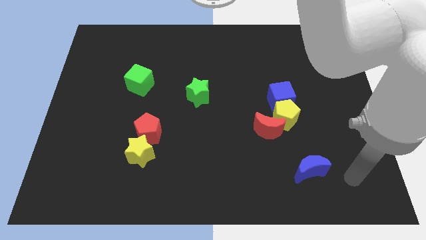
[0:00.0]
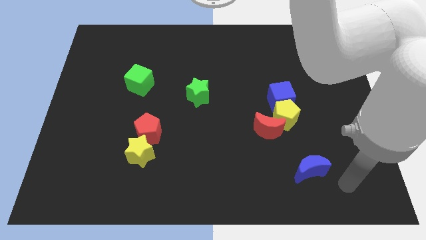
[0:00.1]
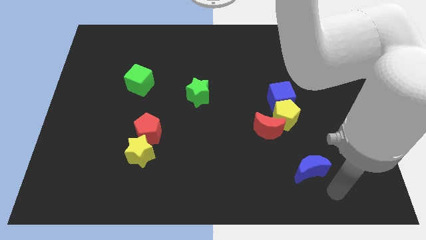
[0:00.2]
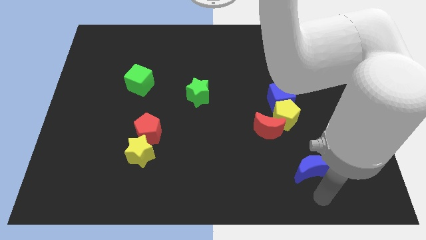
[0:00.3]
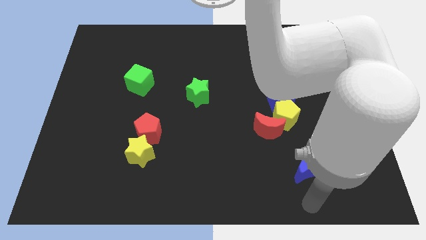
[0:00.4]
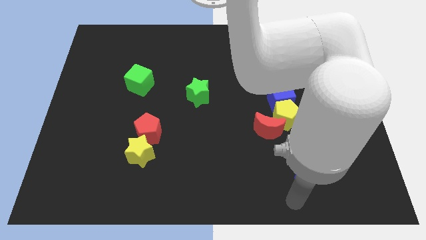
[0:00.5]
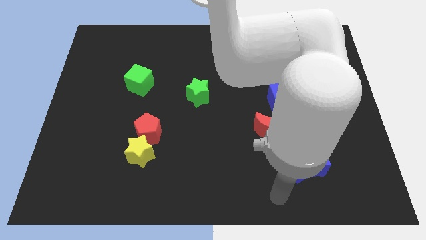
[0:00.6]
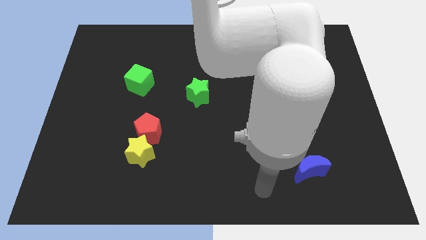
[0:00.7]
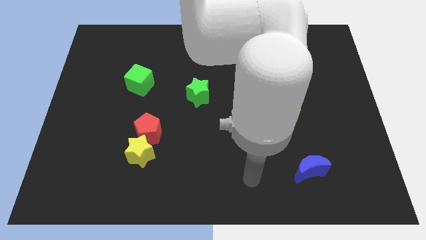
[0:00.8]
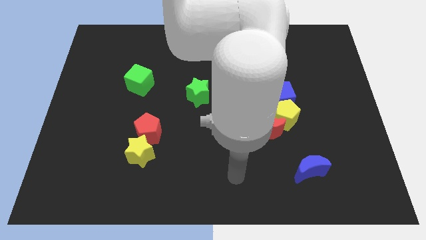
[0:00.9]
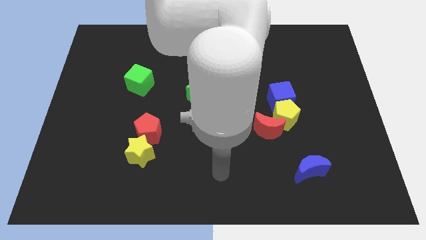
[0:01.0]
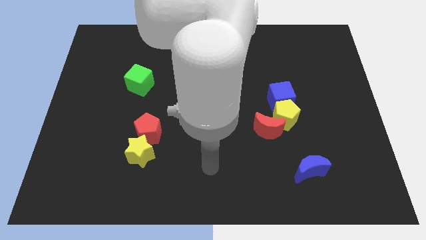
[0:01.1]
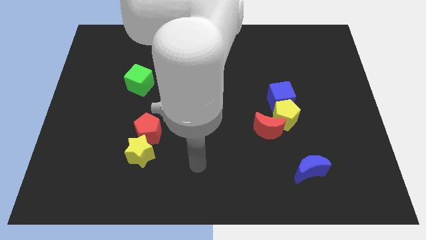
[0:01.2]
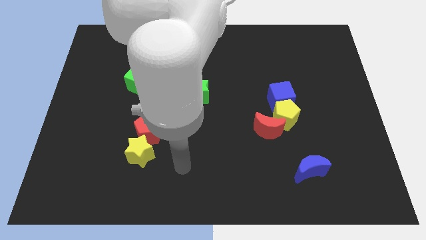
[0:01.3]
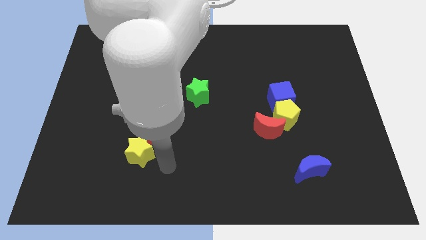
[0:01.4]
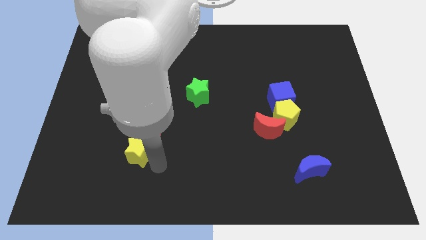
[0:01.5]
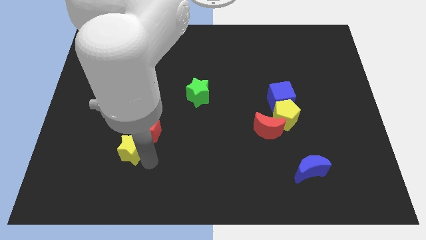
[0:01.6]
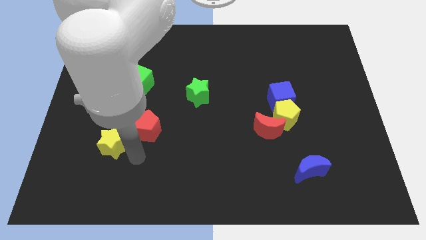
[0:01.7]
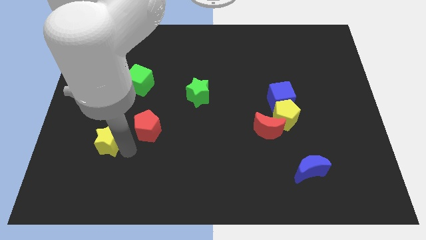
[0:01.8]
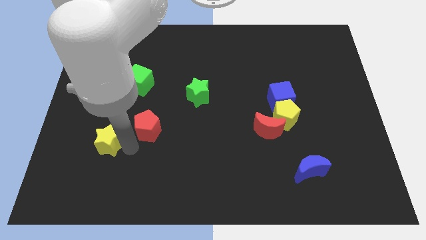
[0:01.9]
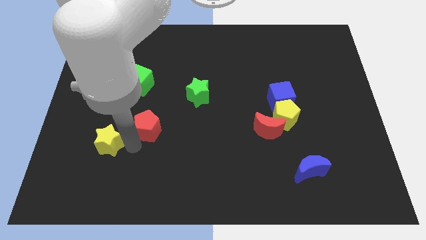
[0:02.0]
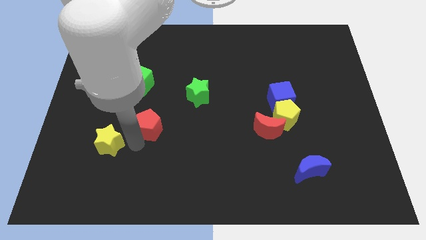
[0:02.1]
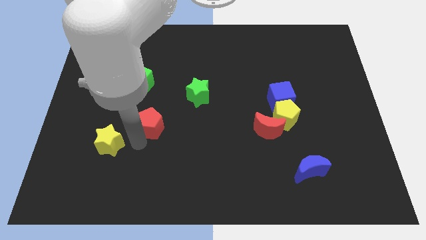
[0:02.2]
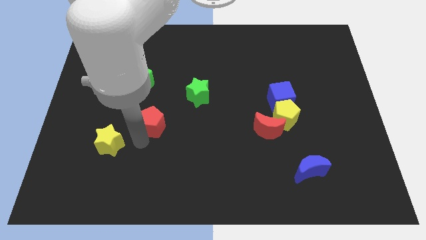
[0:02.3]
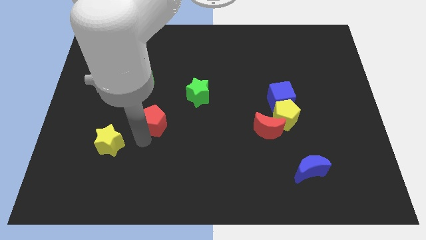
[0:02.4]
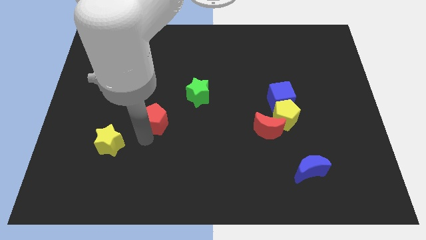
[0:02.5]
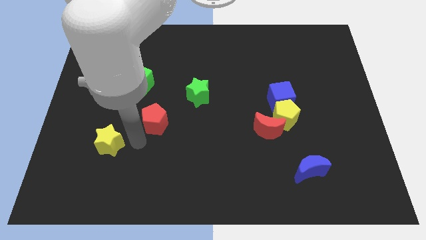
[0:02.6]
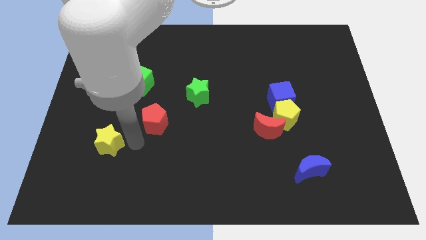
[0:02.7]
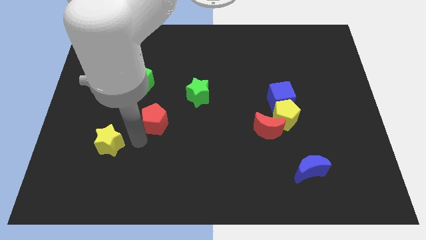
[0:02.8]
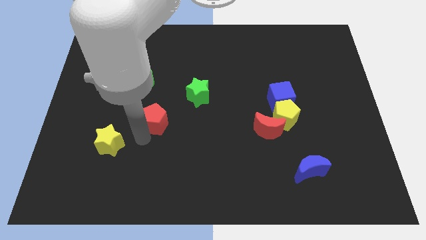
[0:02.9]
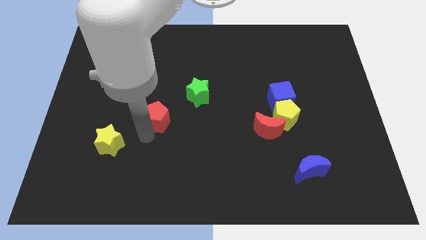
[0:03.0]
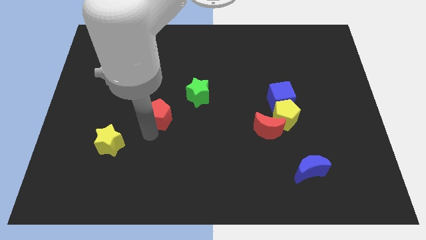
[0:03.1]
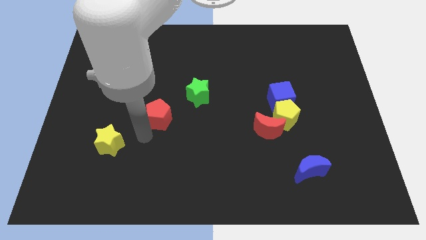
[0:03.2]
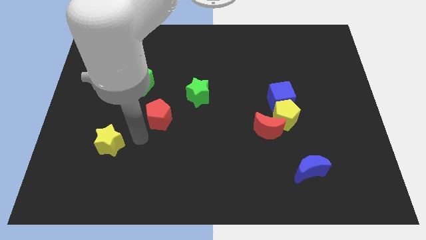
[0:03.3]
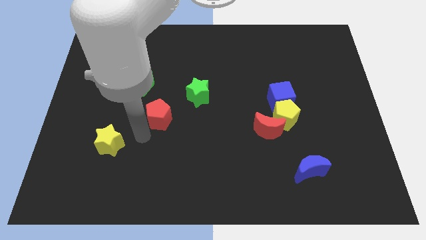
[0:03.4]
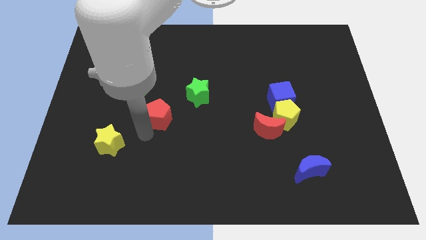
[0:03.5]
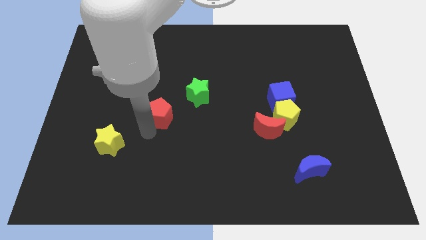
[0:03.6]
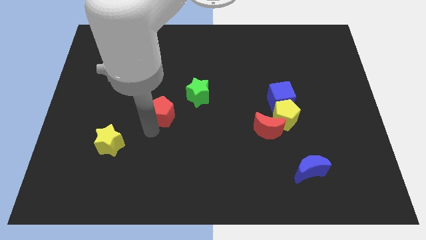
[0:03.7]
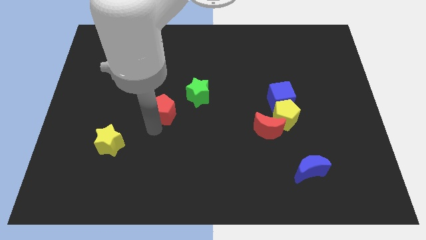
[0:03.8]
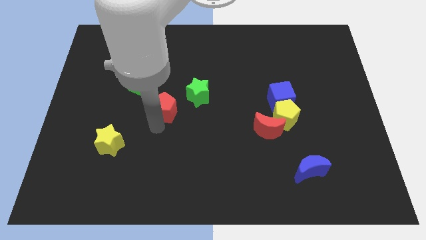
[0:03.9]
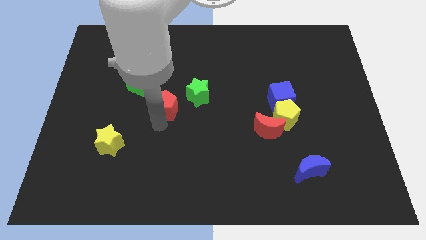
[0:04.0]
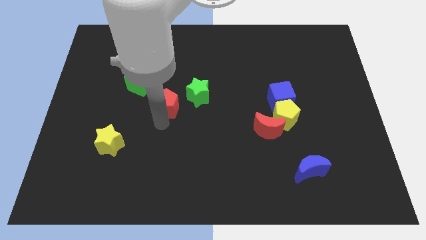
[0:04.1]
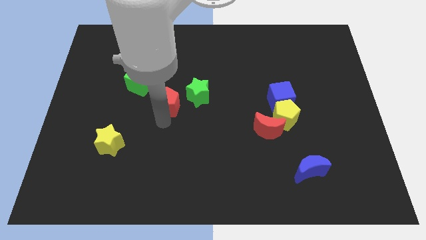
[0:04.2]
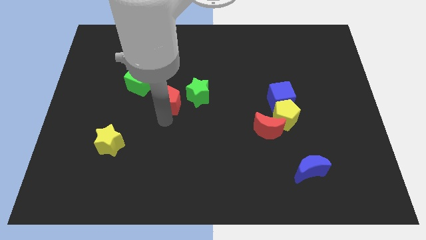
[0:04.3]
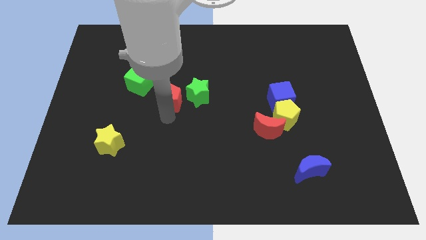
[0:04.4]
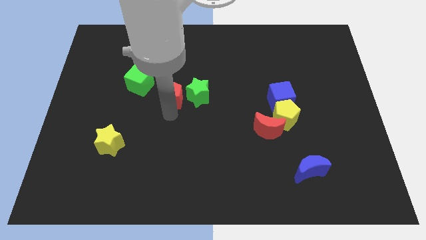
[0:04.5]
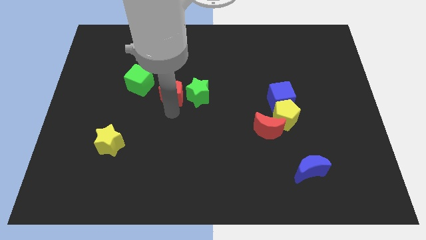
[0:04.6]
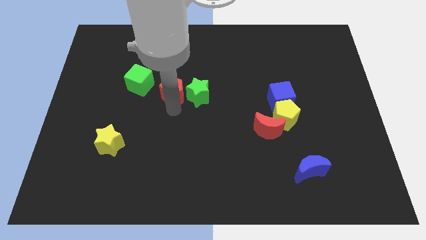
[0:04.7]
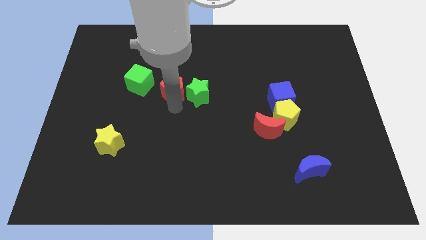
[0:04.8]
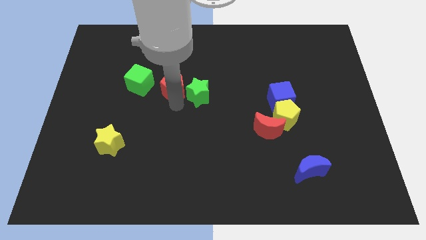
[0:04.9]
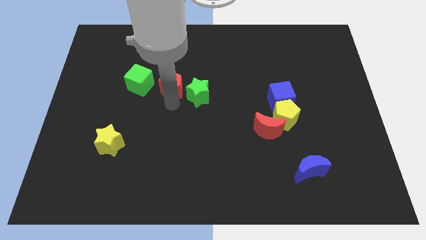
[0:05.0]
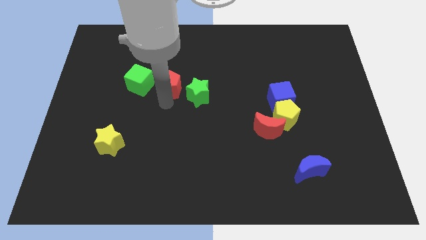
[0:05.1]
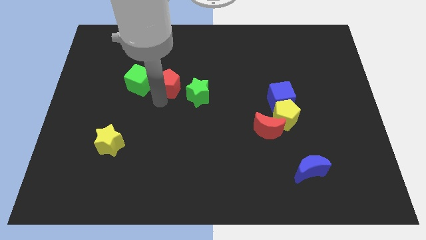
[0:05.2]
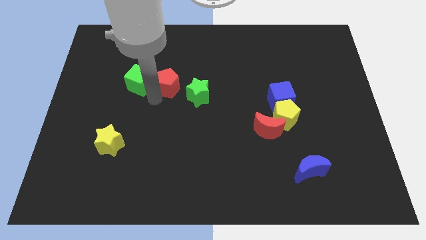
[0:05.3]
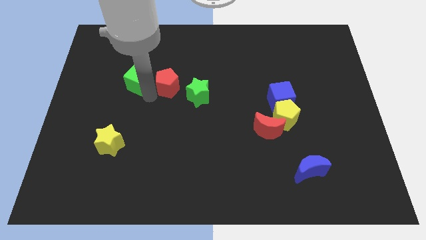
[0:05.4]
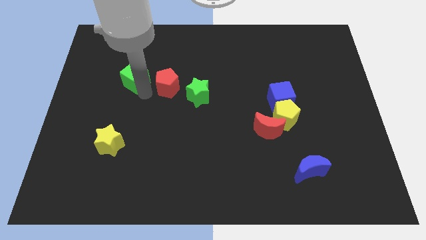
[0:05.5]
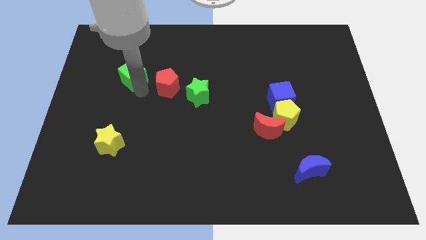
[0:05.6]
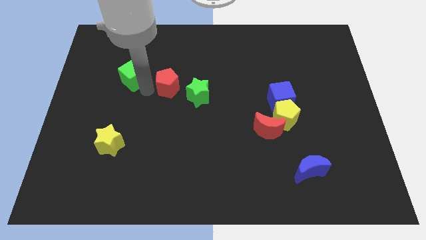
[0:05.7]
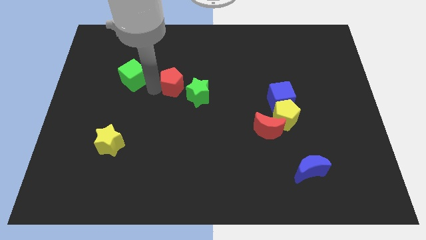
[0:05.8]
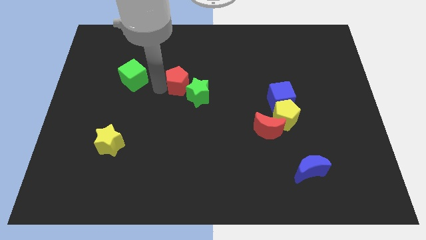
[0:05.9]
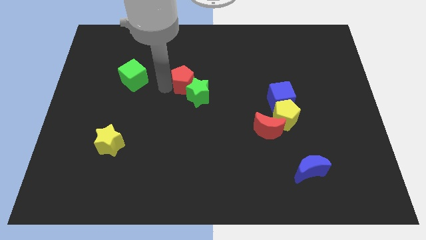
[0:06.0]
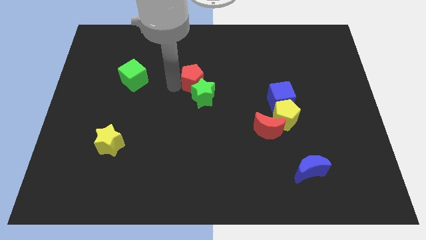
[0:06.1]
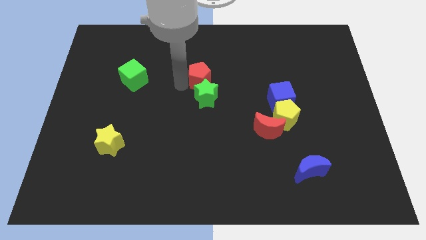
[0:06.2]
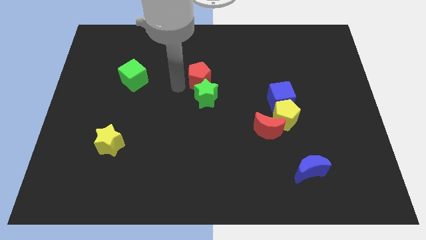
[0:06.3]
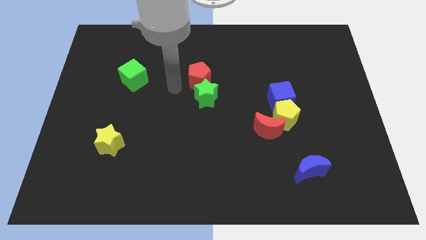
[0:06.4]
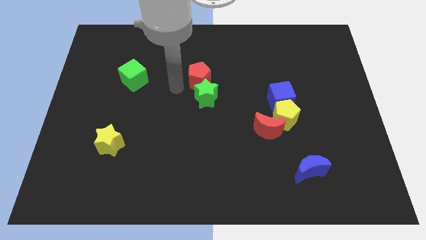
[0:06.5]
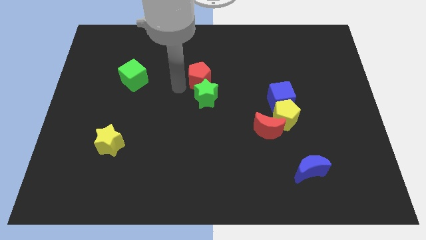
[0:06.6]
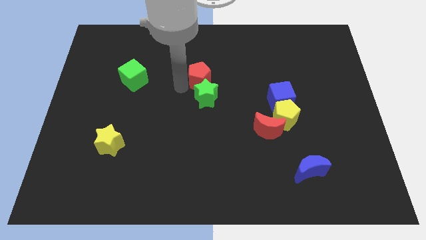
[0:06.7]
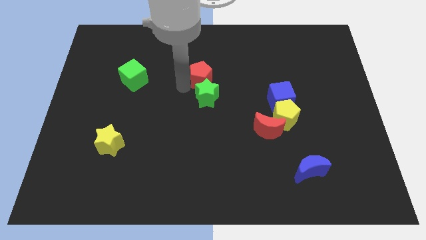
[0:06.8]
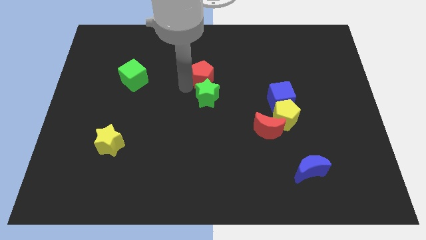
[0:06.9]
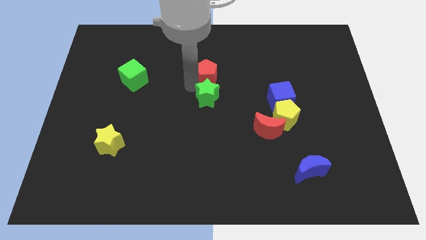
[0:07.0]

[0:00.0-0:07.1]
move the red pentagon diagonally up and to the right

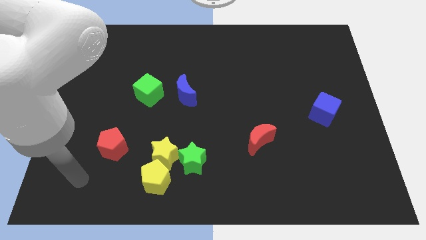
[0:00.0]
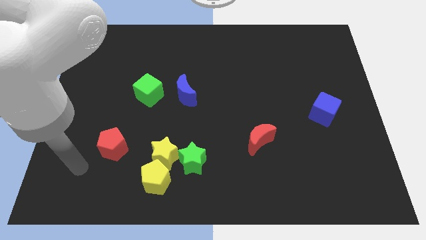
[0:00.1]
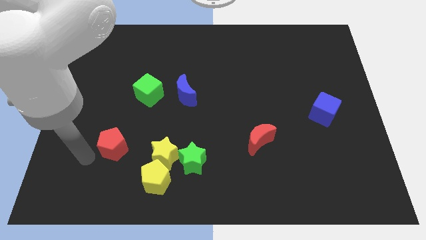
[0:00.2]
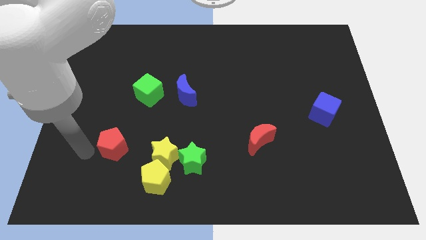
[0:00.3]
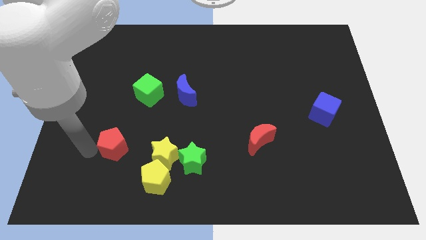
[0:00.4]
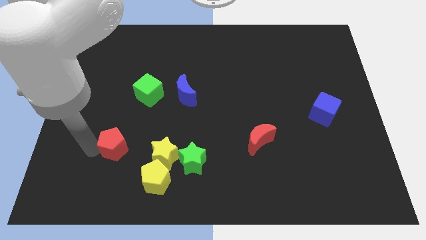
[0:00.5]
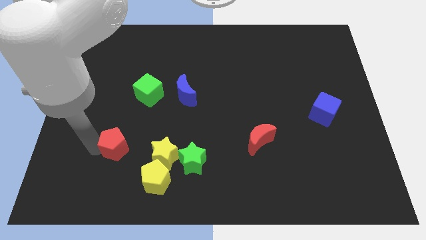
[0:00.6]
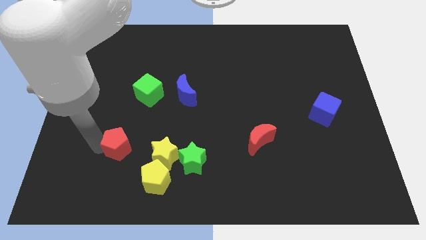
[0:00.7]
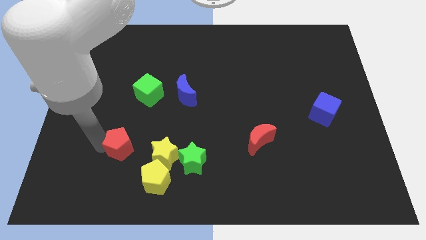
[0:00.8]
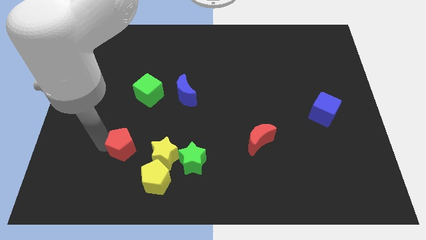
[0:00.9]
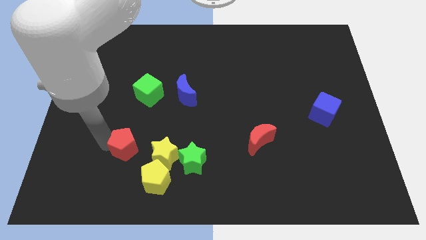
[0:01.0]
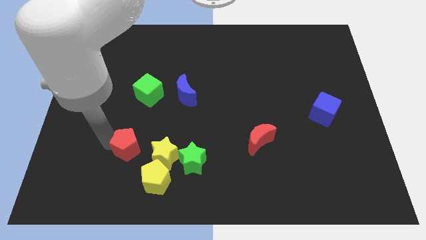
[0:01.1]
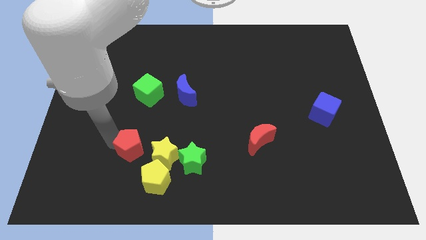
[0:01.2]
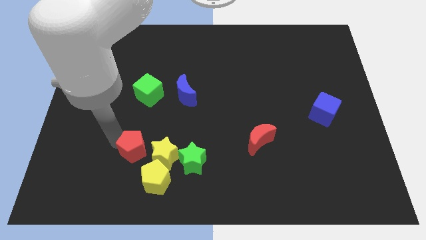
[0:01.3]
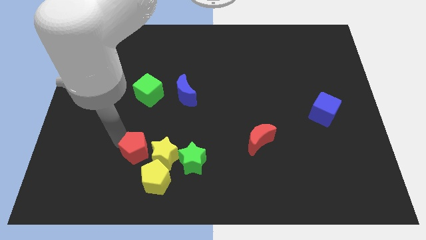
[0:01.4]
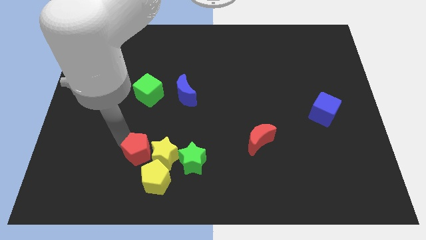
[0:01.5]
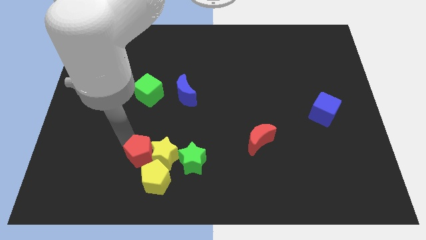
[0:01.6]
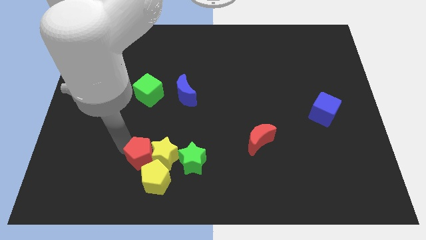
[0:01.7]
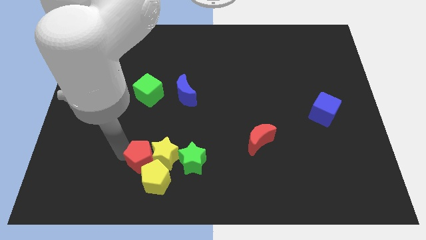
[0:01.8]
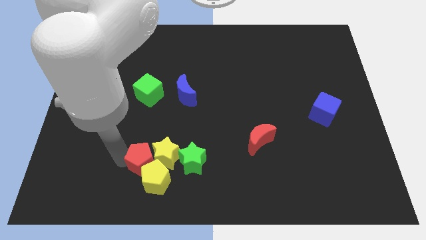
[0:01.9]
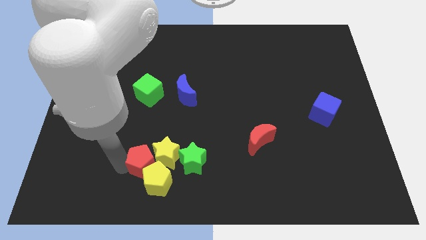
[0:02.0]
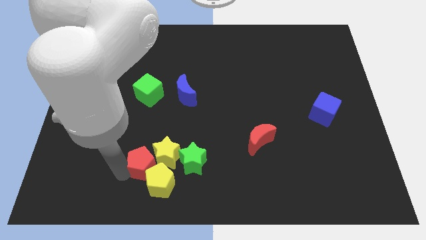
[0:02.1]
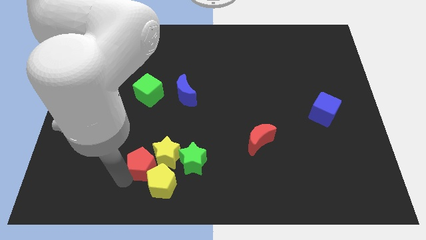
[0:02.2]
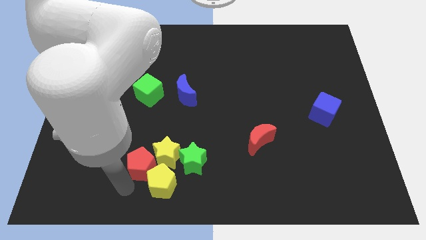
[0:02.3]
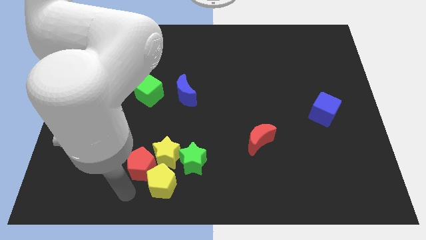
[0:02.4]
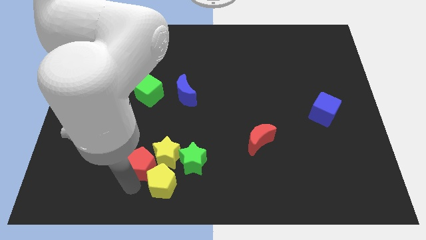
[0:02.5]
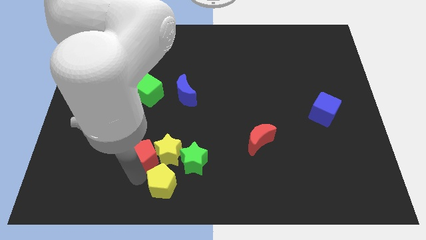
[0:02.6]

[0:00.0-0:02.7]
move the red pentagon right a little bit
